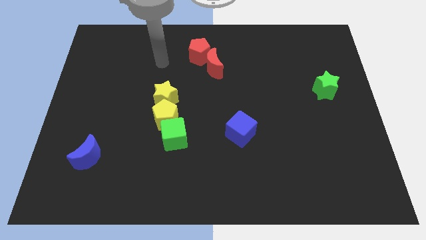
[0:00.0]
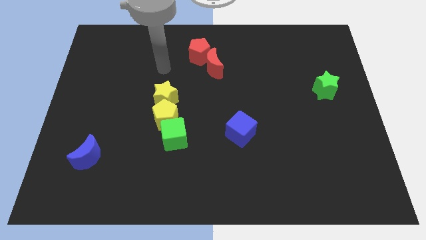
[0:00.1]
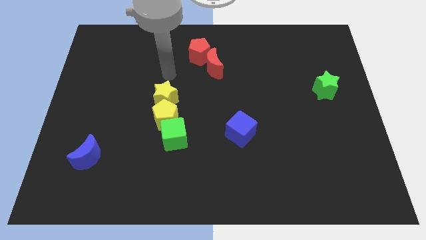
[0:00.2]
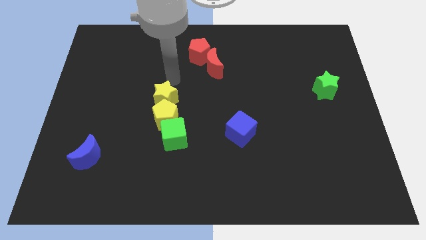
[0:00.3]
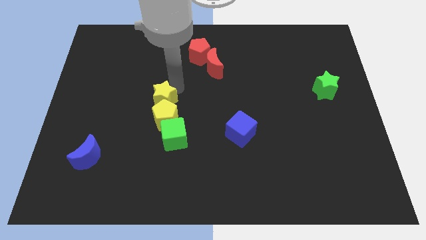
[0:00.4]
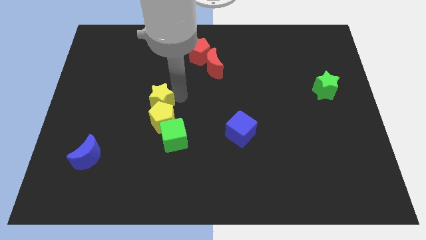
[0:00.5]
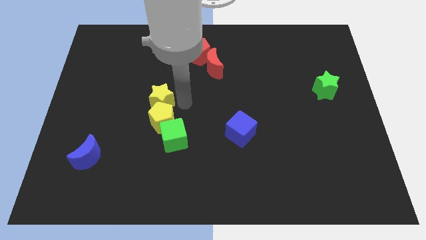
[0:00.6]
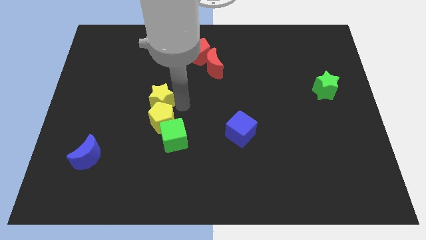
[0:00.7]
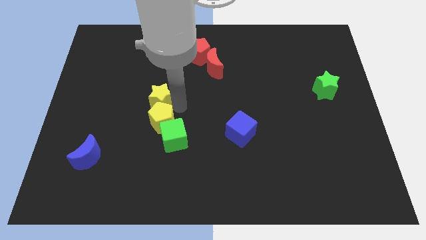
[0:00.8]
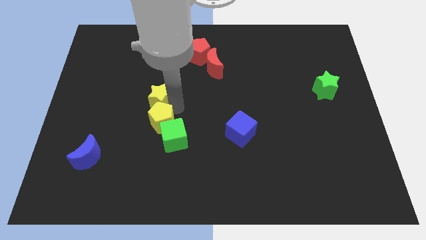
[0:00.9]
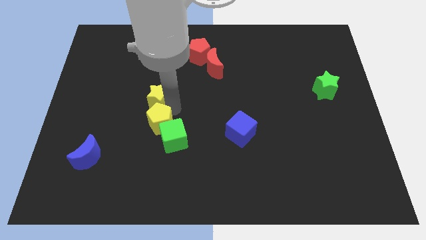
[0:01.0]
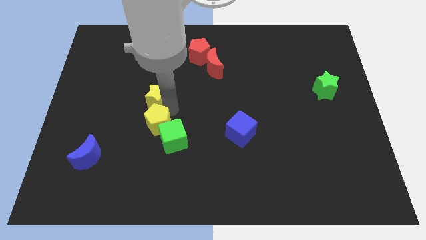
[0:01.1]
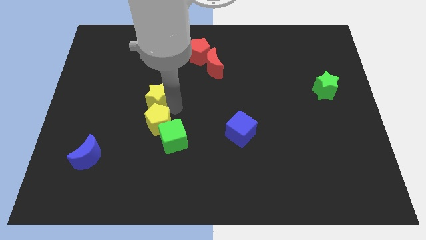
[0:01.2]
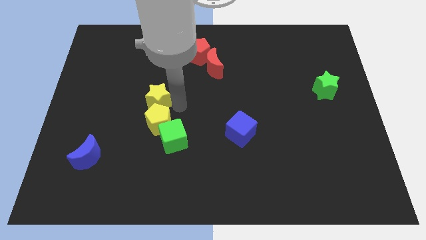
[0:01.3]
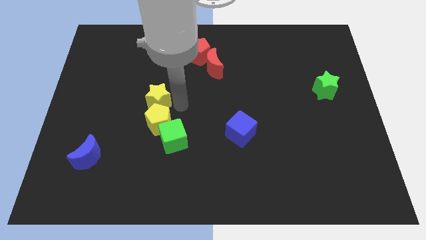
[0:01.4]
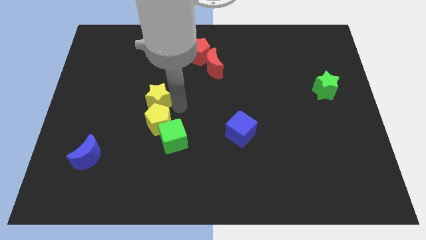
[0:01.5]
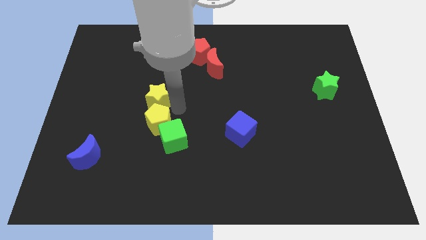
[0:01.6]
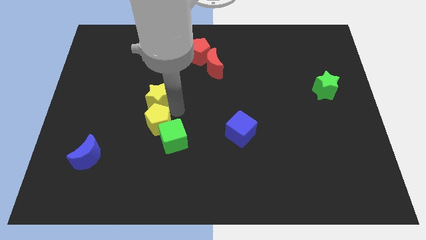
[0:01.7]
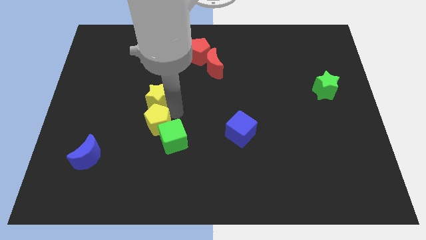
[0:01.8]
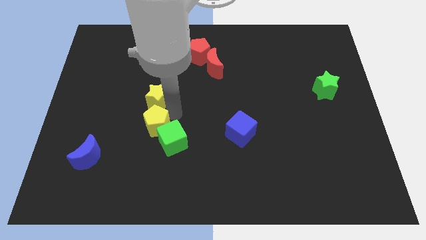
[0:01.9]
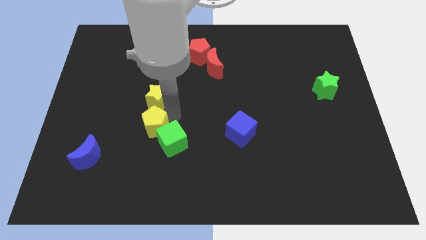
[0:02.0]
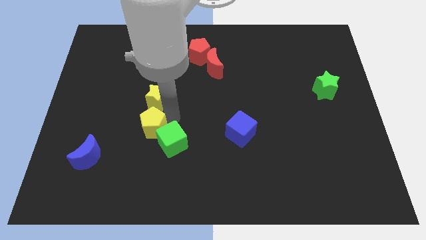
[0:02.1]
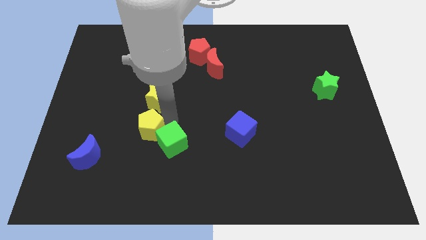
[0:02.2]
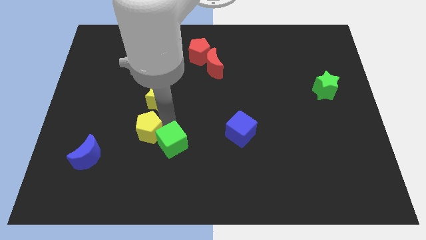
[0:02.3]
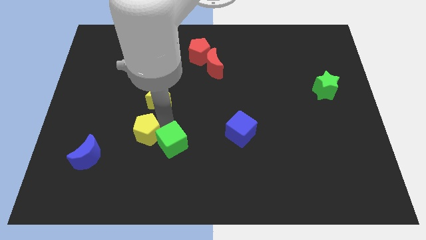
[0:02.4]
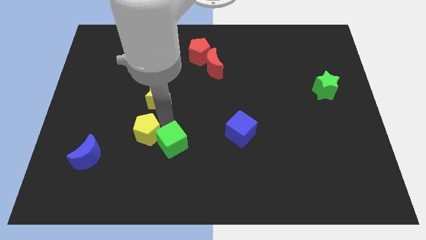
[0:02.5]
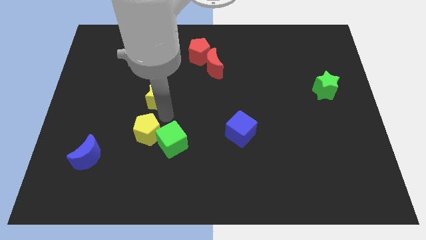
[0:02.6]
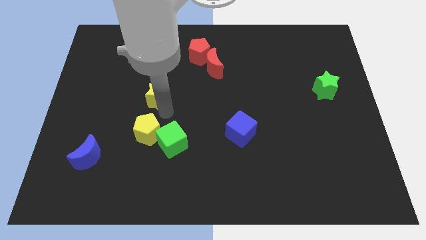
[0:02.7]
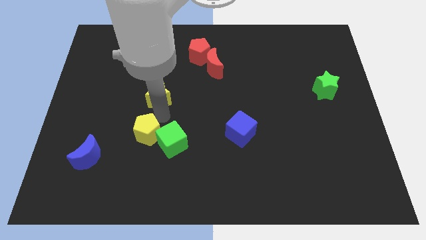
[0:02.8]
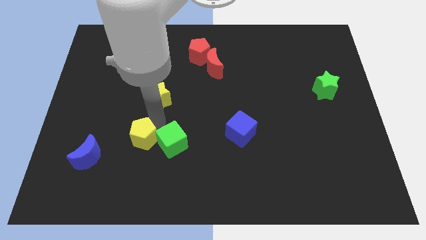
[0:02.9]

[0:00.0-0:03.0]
slightly push the yellow pentagon downwards and to the left diagonally

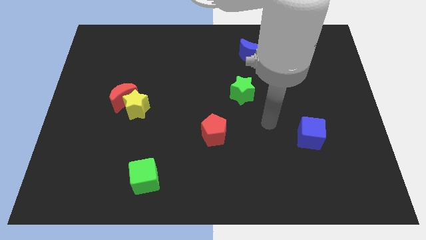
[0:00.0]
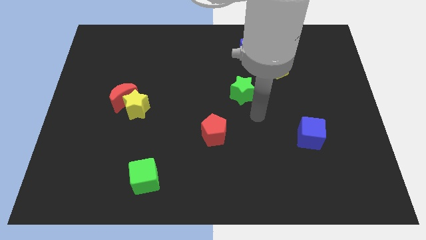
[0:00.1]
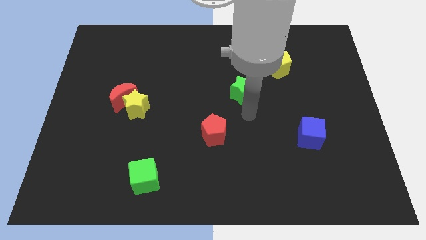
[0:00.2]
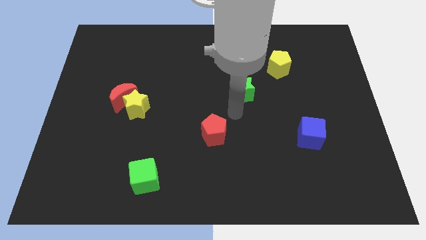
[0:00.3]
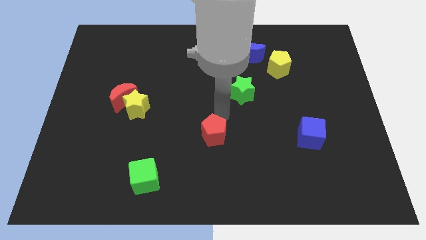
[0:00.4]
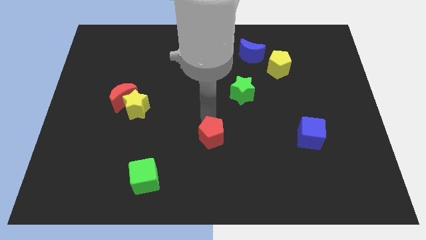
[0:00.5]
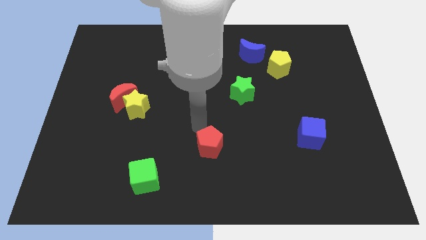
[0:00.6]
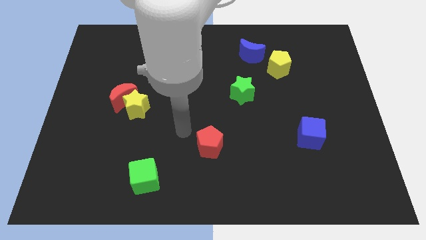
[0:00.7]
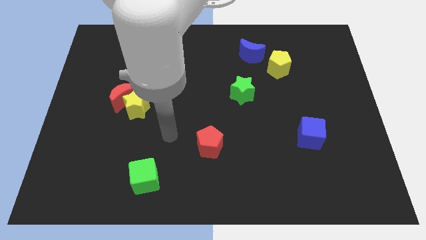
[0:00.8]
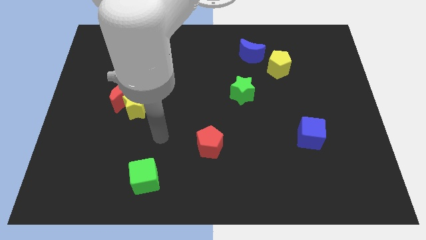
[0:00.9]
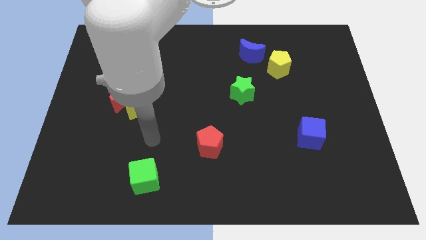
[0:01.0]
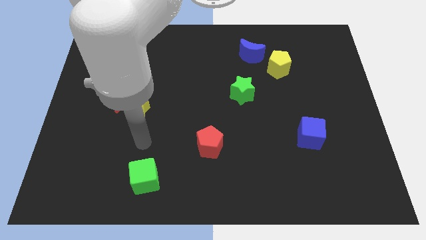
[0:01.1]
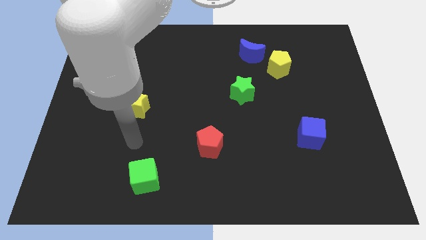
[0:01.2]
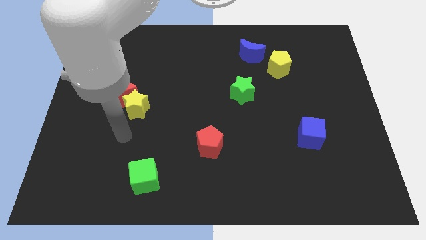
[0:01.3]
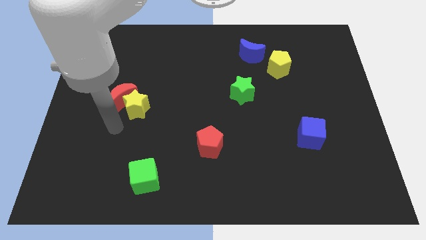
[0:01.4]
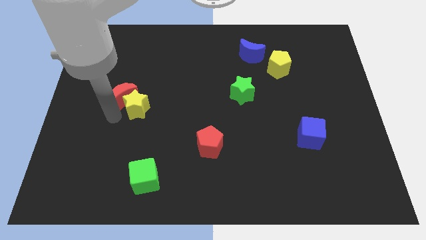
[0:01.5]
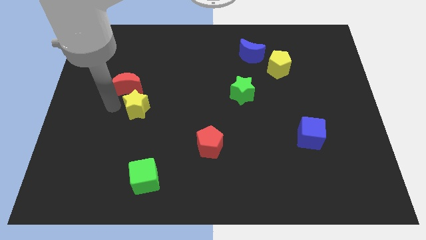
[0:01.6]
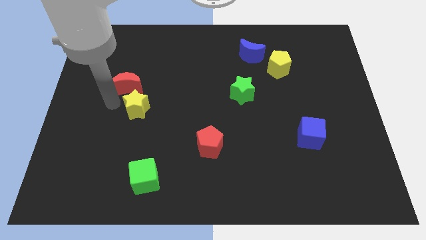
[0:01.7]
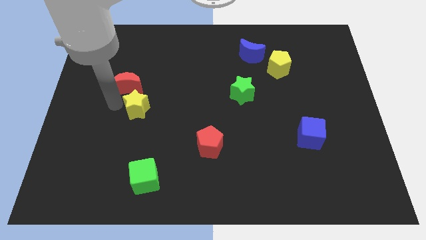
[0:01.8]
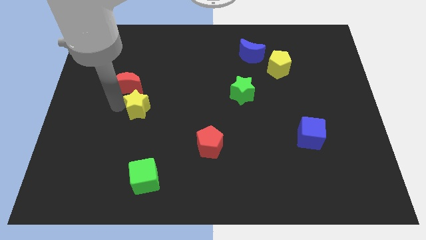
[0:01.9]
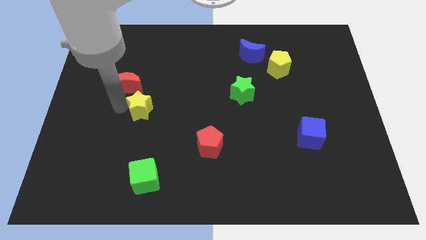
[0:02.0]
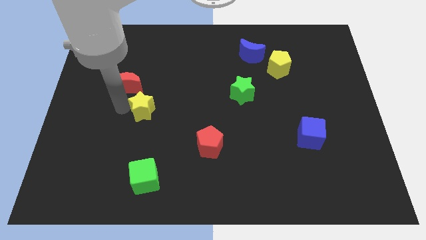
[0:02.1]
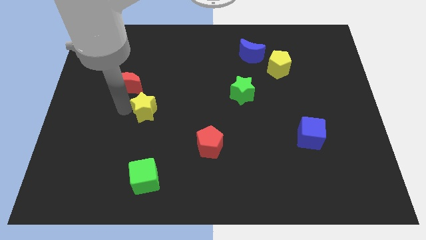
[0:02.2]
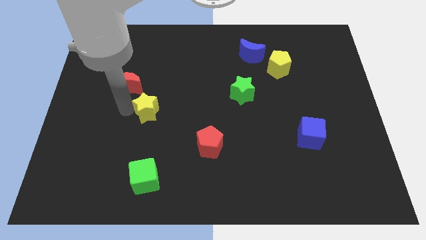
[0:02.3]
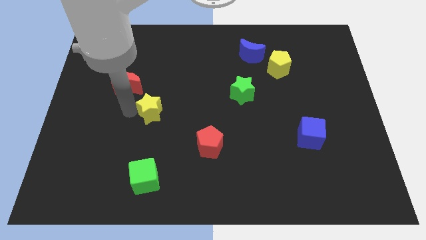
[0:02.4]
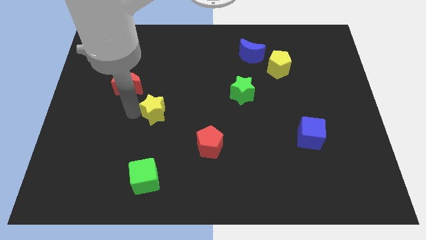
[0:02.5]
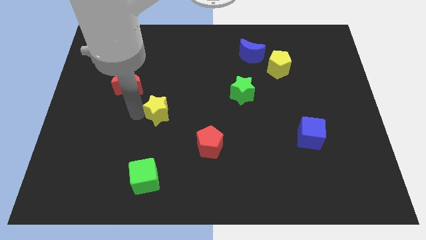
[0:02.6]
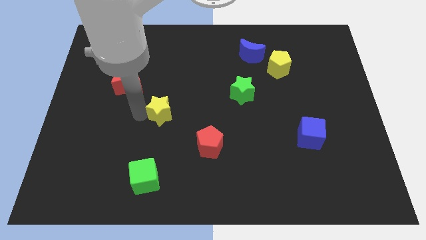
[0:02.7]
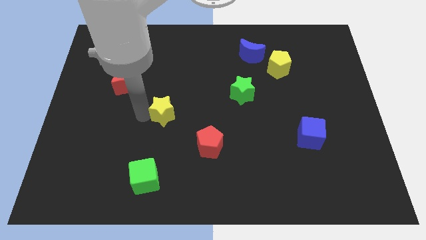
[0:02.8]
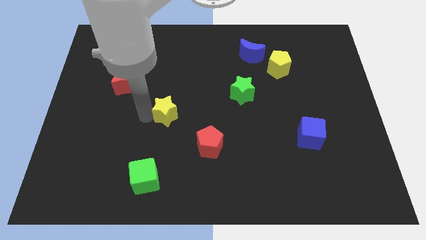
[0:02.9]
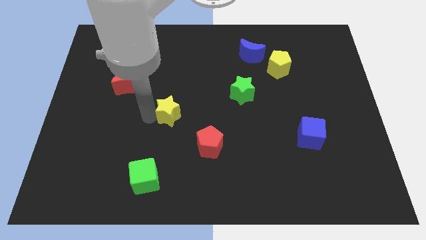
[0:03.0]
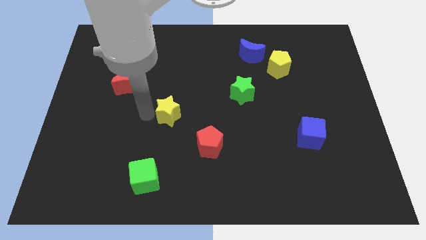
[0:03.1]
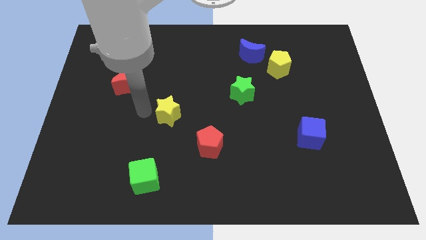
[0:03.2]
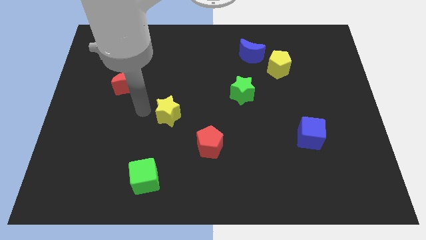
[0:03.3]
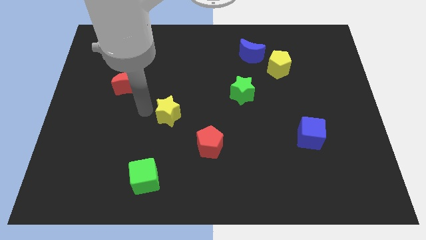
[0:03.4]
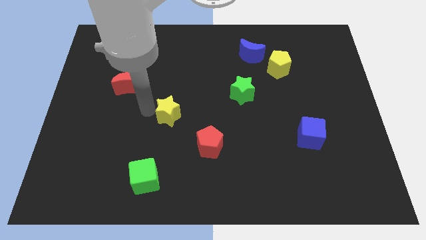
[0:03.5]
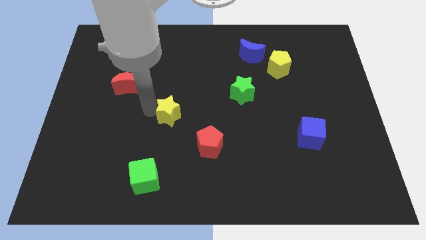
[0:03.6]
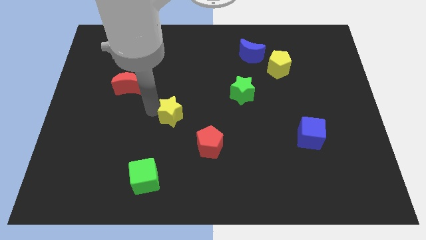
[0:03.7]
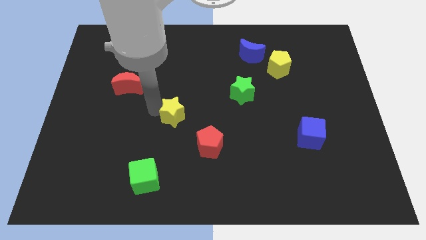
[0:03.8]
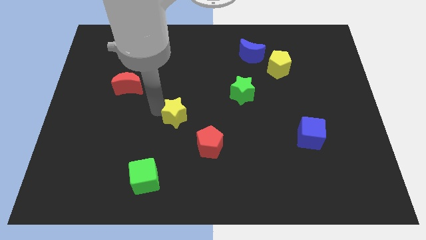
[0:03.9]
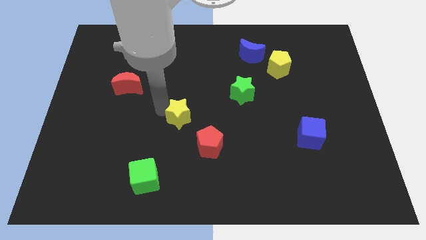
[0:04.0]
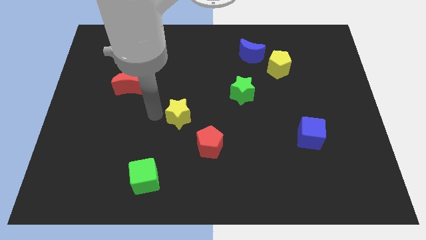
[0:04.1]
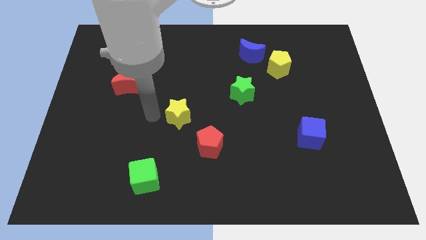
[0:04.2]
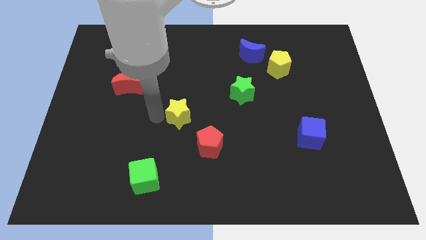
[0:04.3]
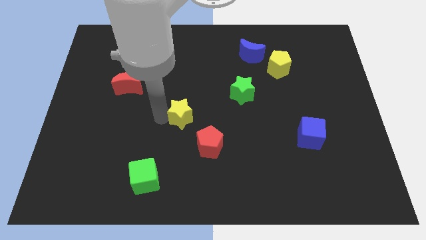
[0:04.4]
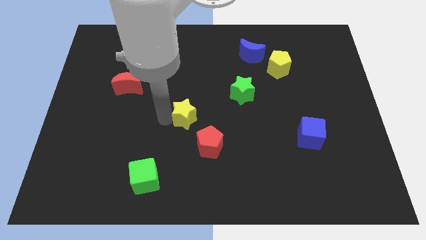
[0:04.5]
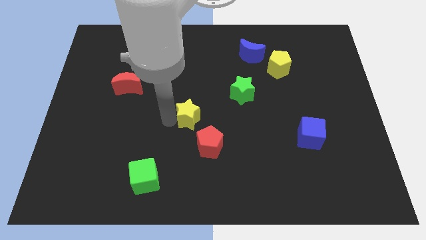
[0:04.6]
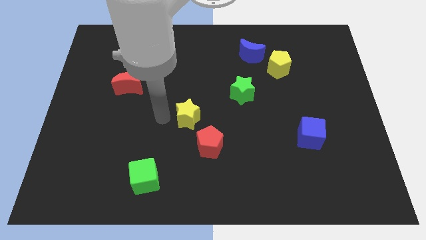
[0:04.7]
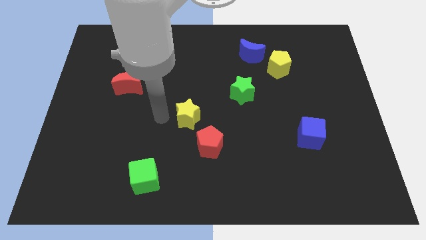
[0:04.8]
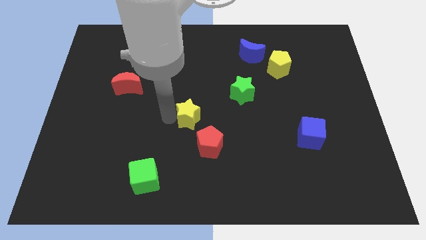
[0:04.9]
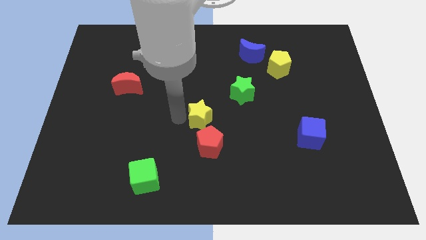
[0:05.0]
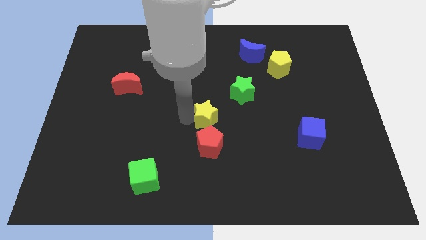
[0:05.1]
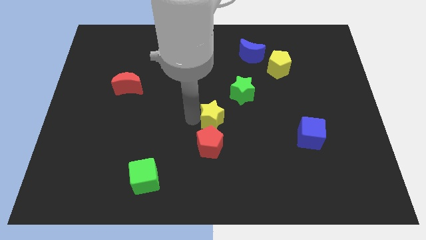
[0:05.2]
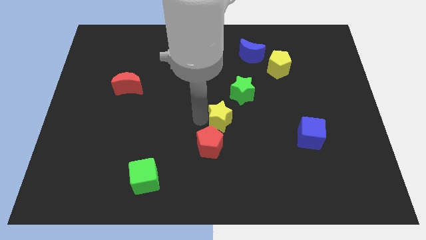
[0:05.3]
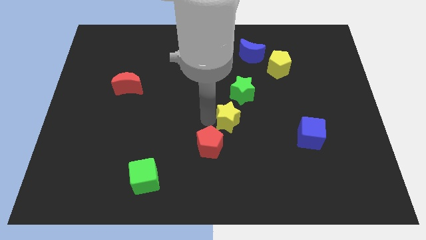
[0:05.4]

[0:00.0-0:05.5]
slide the yellow star to the right
